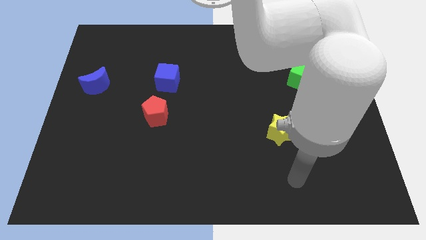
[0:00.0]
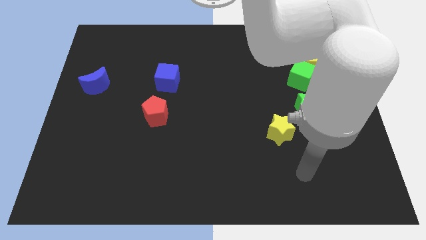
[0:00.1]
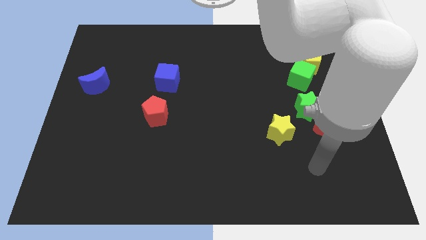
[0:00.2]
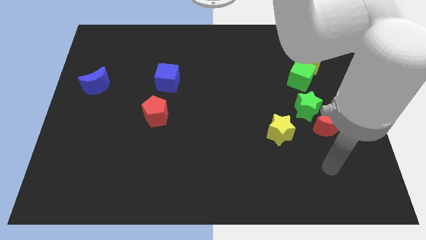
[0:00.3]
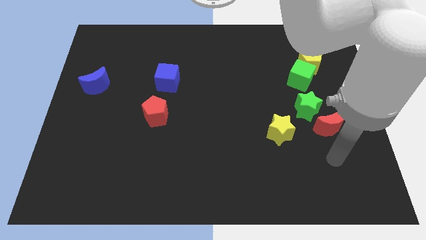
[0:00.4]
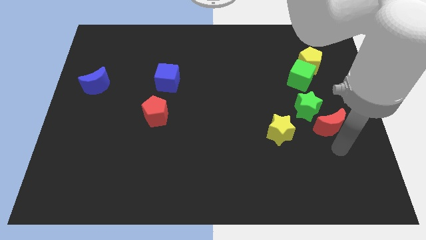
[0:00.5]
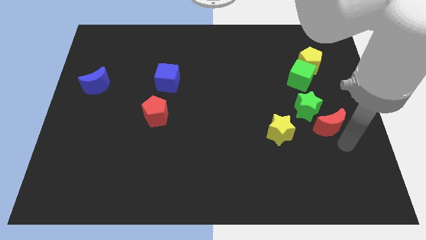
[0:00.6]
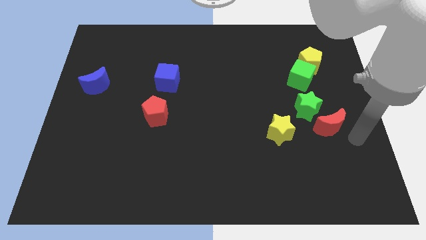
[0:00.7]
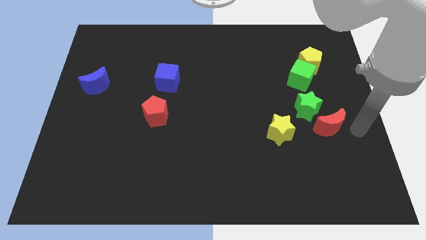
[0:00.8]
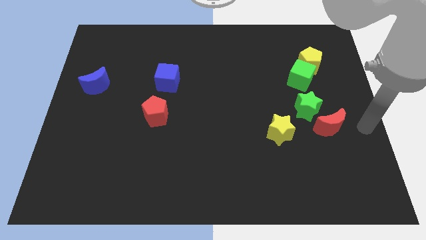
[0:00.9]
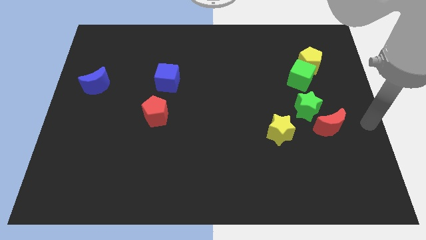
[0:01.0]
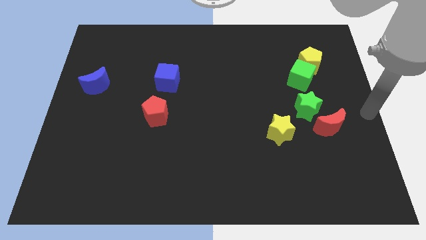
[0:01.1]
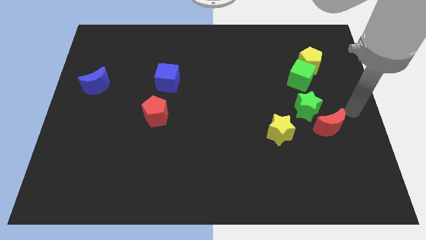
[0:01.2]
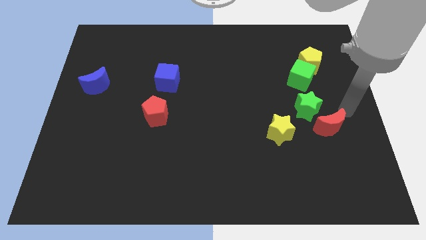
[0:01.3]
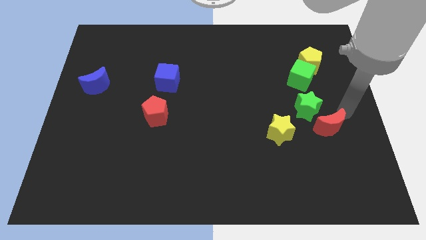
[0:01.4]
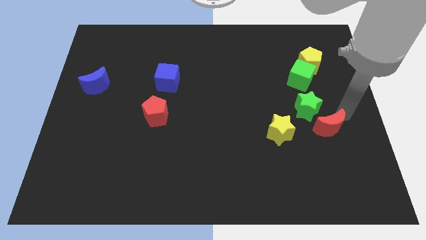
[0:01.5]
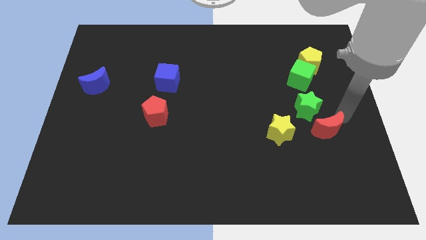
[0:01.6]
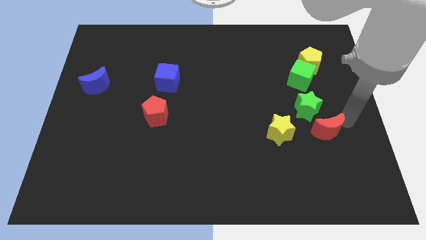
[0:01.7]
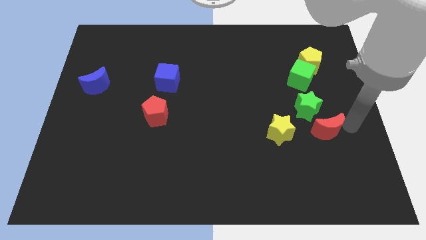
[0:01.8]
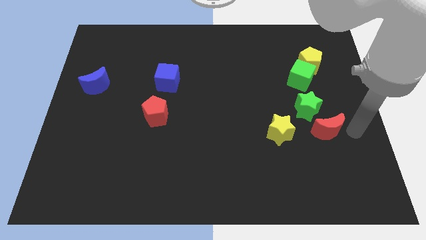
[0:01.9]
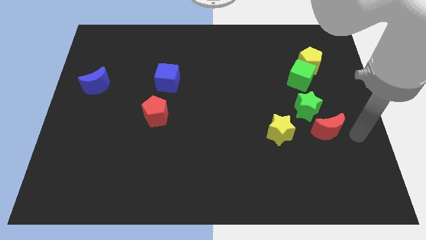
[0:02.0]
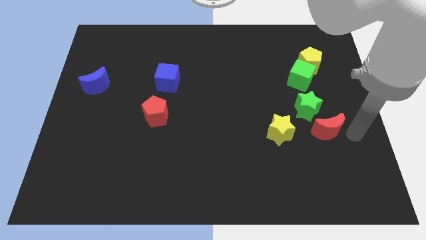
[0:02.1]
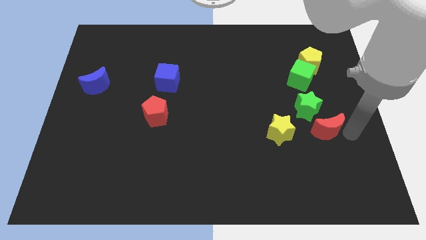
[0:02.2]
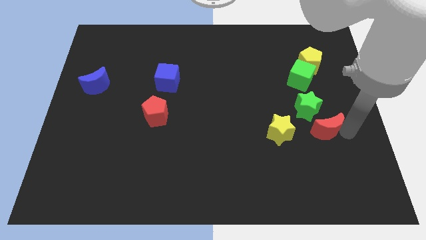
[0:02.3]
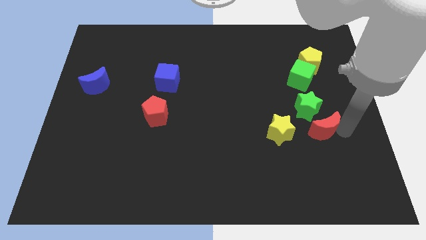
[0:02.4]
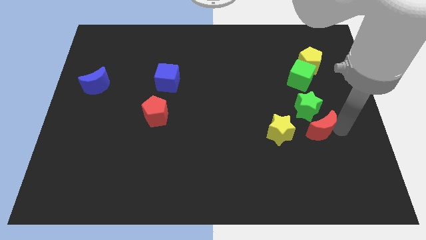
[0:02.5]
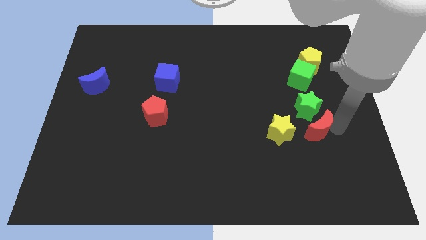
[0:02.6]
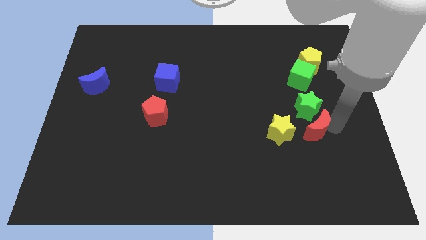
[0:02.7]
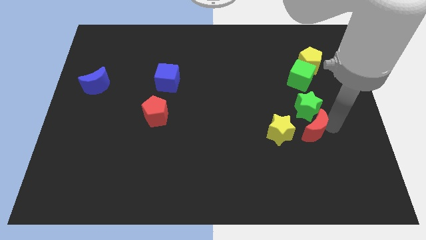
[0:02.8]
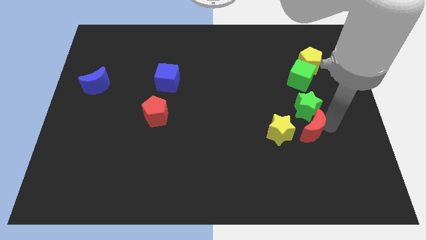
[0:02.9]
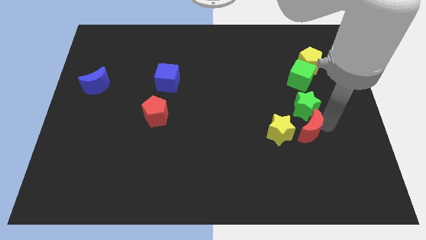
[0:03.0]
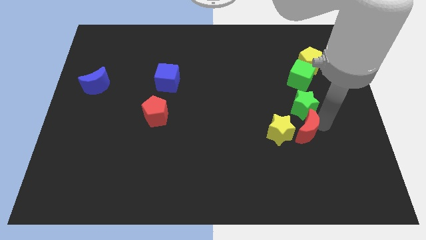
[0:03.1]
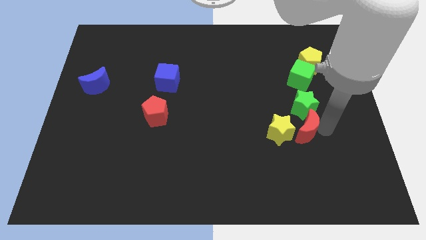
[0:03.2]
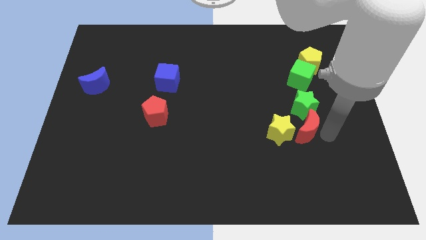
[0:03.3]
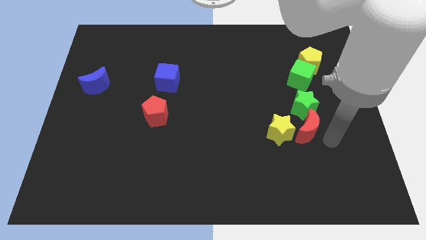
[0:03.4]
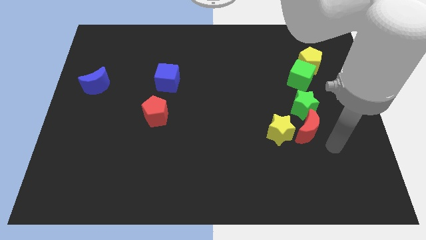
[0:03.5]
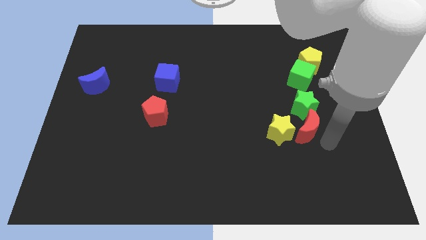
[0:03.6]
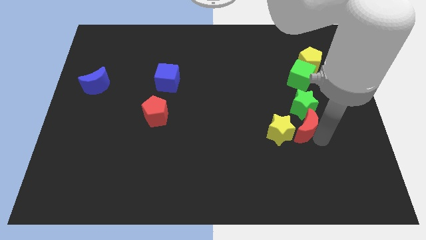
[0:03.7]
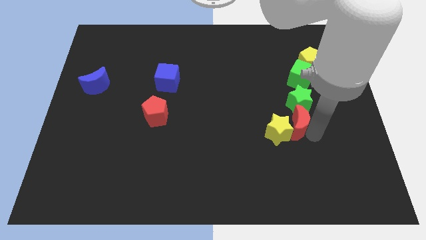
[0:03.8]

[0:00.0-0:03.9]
slightly slide the red moon left

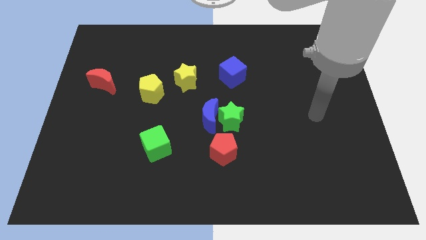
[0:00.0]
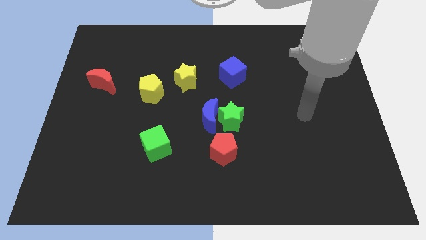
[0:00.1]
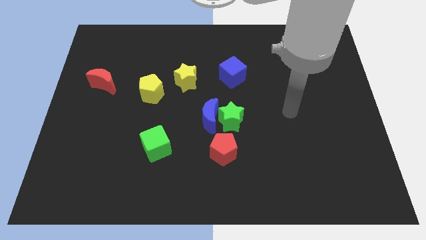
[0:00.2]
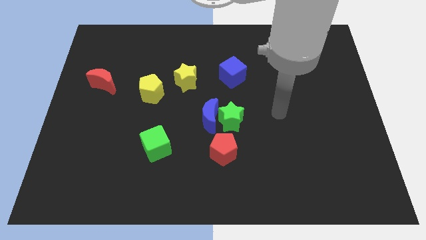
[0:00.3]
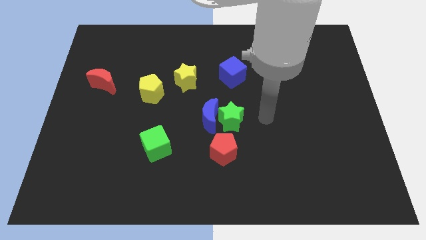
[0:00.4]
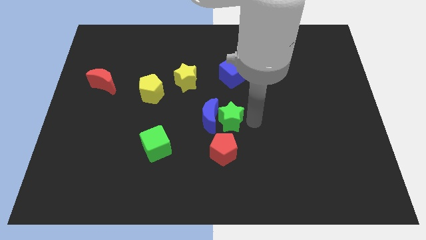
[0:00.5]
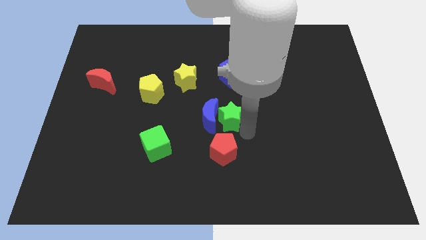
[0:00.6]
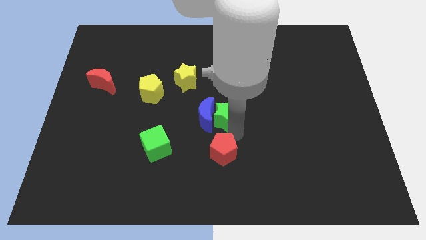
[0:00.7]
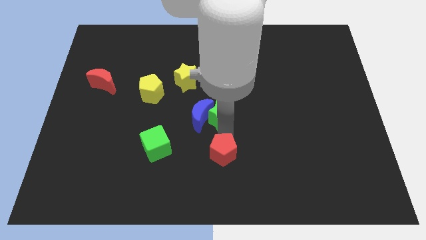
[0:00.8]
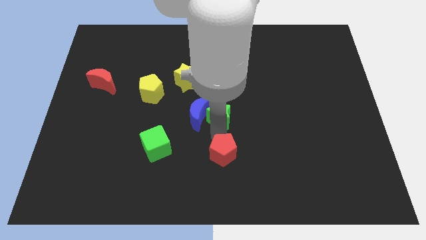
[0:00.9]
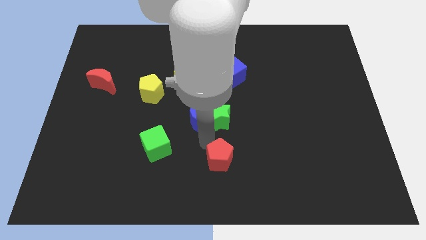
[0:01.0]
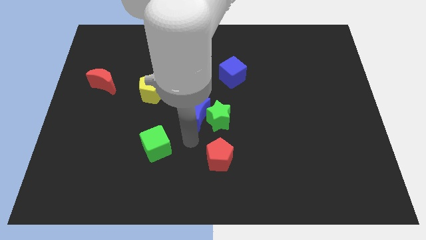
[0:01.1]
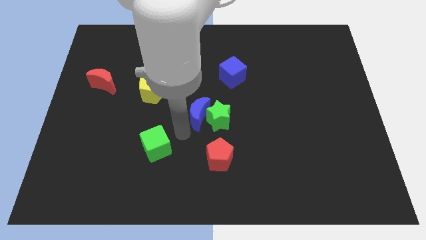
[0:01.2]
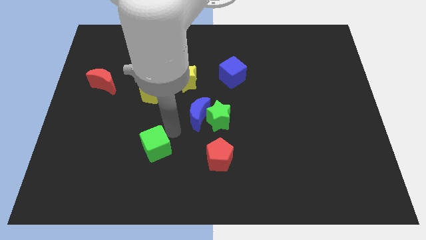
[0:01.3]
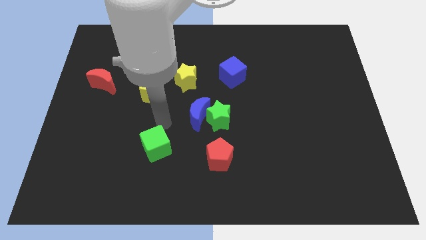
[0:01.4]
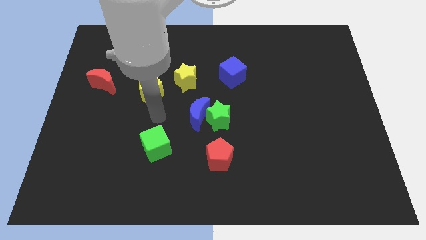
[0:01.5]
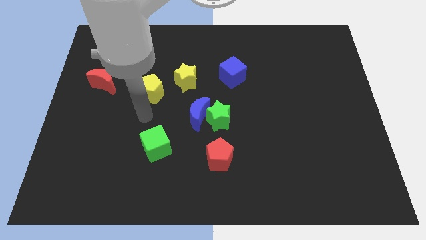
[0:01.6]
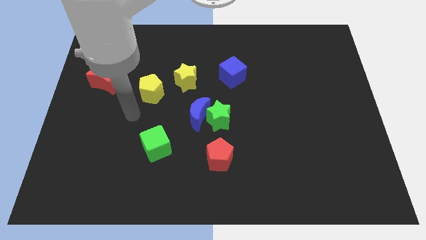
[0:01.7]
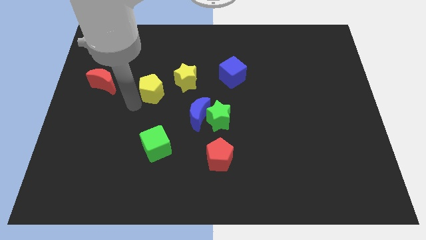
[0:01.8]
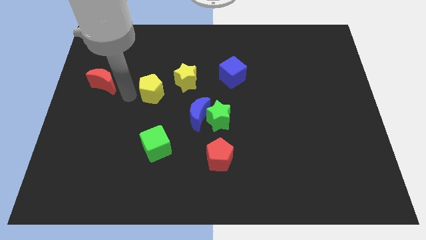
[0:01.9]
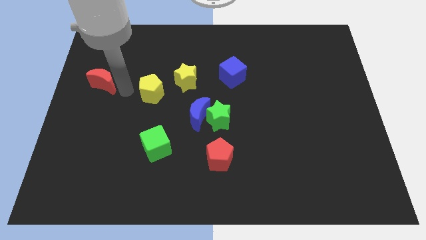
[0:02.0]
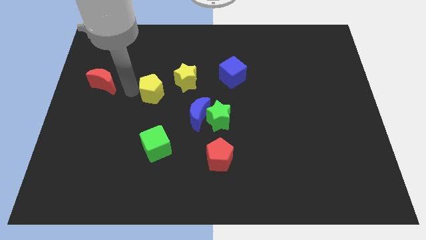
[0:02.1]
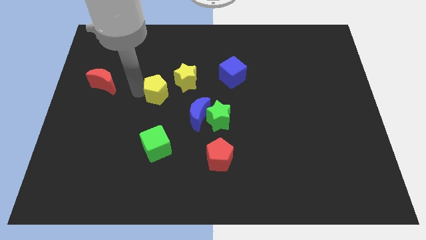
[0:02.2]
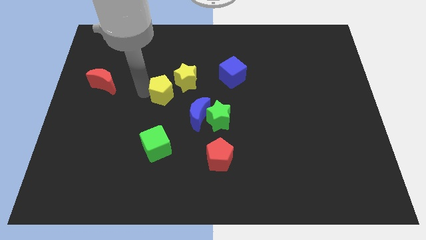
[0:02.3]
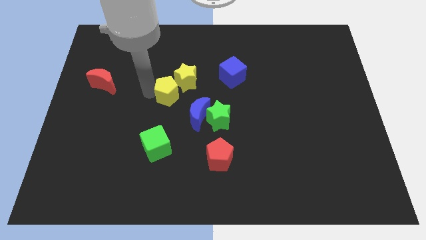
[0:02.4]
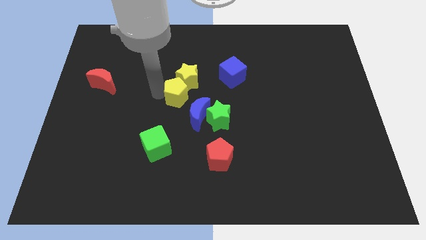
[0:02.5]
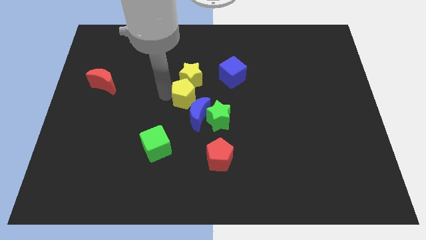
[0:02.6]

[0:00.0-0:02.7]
slide the yellow pentagon right a little bit

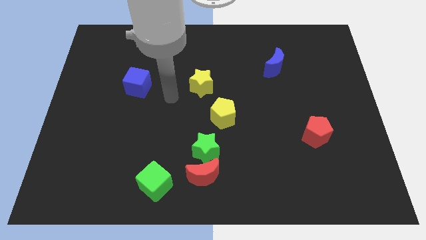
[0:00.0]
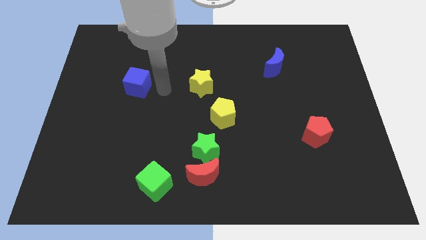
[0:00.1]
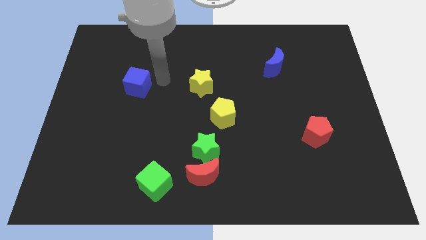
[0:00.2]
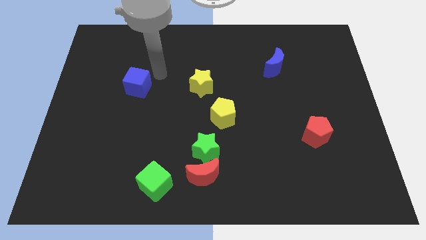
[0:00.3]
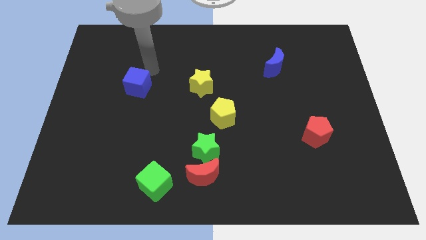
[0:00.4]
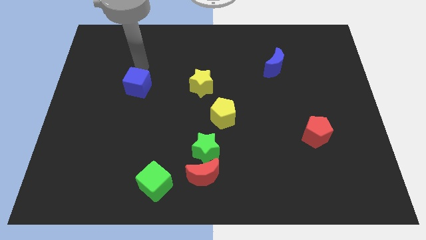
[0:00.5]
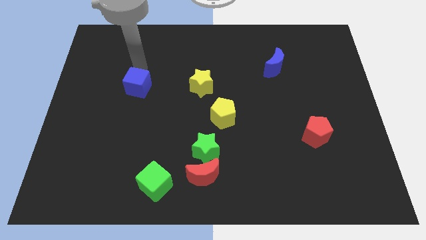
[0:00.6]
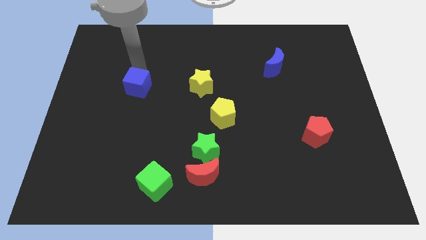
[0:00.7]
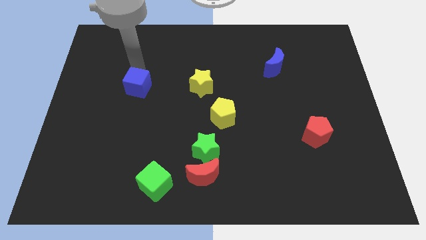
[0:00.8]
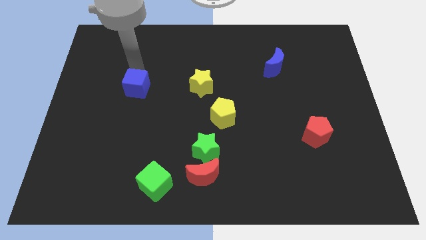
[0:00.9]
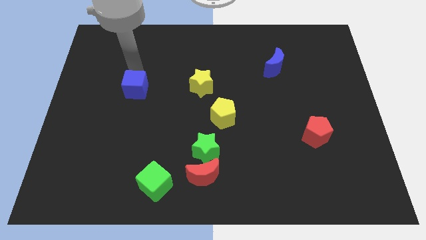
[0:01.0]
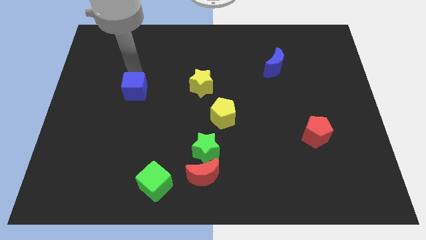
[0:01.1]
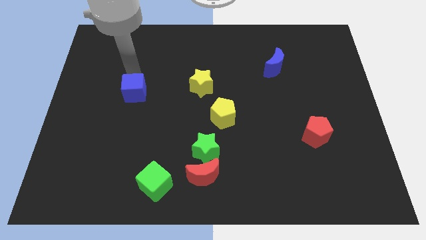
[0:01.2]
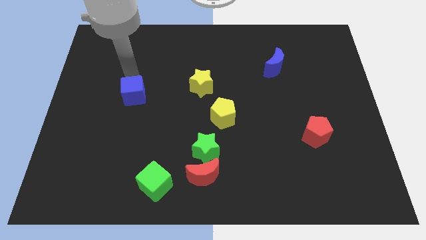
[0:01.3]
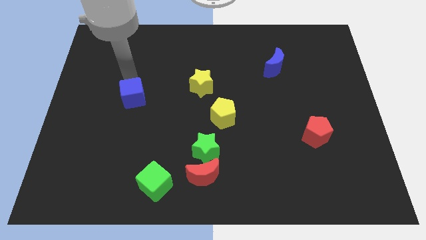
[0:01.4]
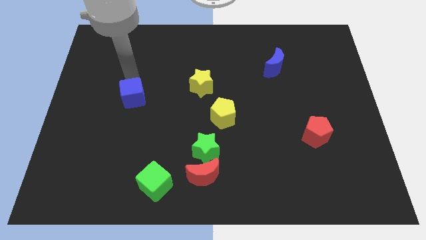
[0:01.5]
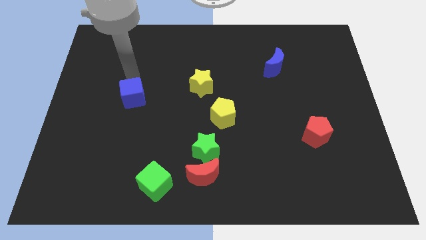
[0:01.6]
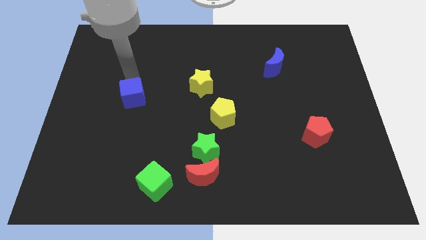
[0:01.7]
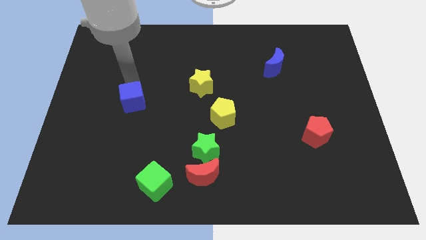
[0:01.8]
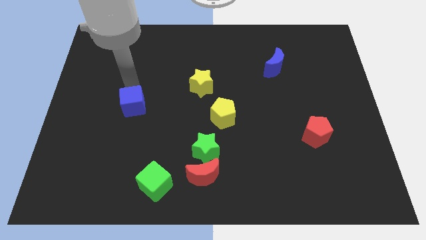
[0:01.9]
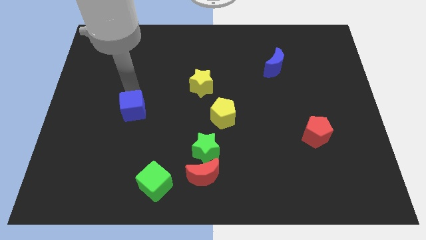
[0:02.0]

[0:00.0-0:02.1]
move the blue cube down a little
